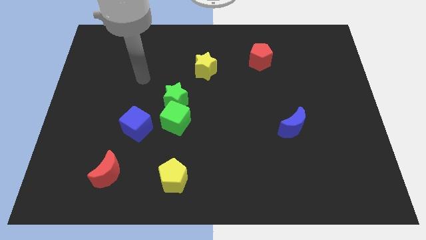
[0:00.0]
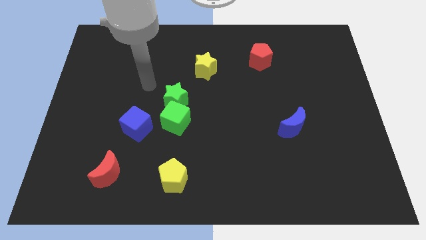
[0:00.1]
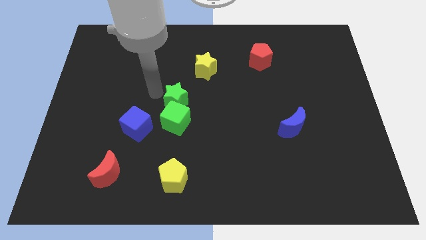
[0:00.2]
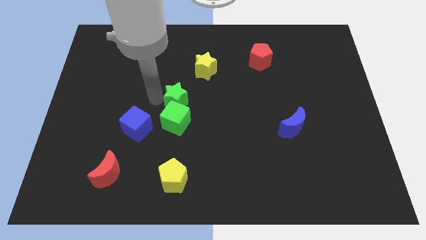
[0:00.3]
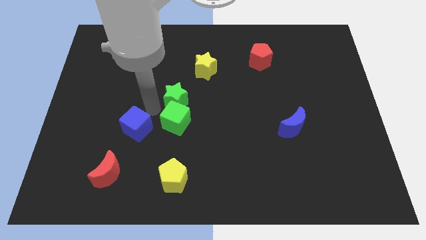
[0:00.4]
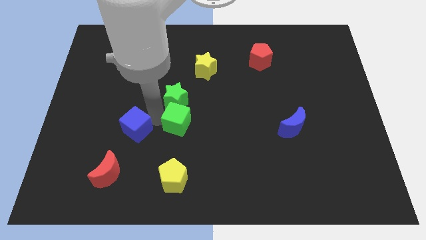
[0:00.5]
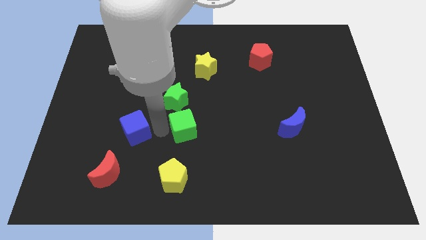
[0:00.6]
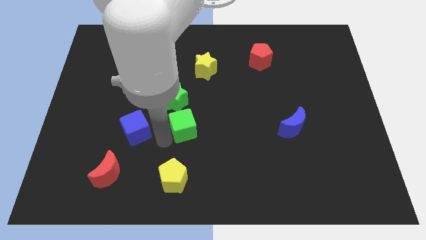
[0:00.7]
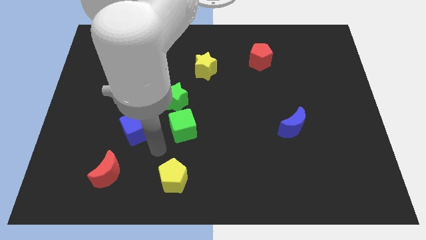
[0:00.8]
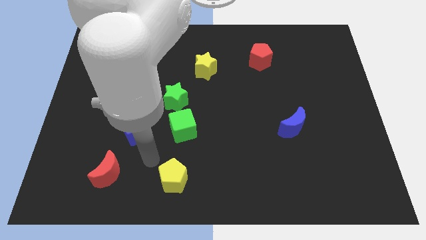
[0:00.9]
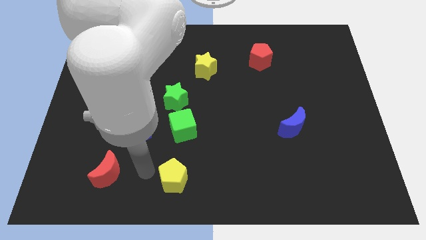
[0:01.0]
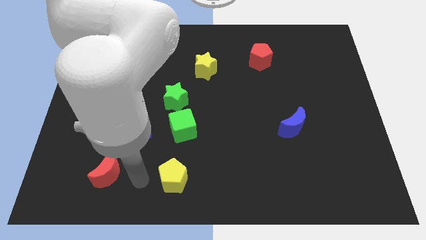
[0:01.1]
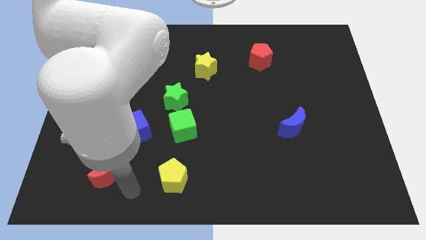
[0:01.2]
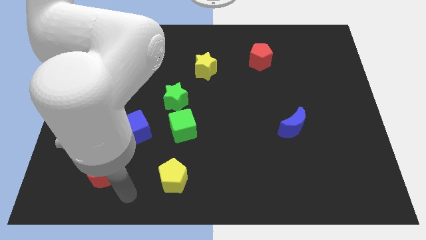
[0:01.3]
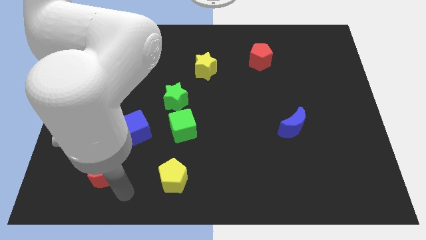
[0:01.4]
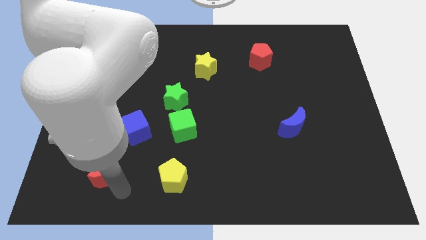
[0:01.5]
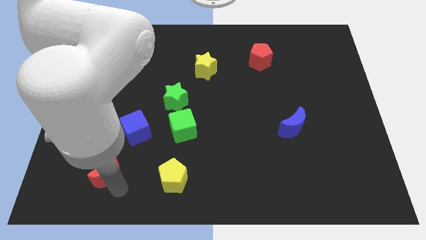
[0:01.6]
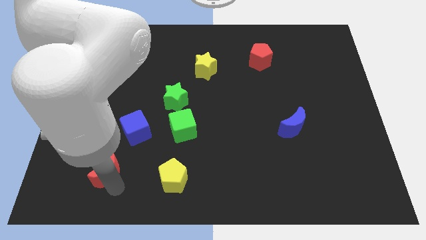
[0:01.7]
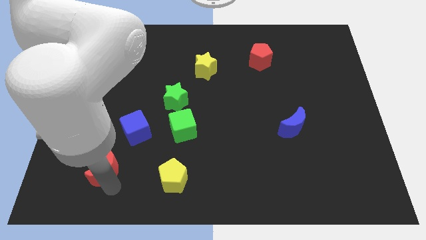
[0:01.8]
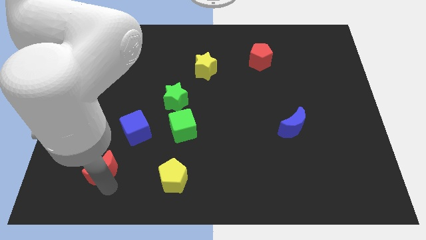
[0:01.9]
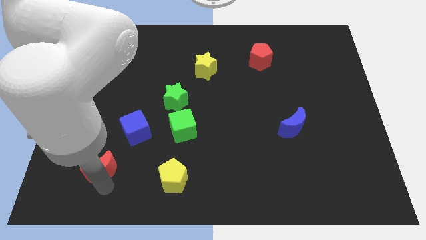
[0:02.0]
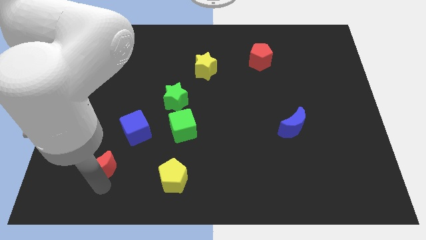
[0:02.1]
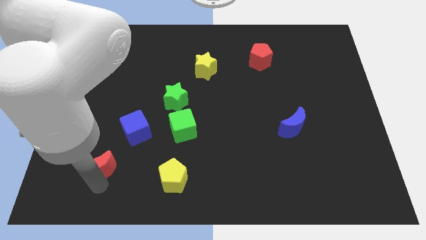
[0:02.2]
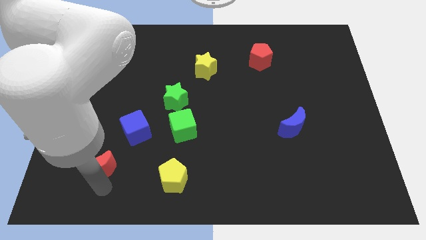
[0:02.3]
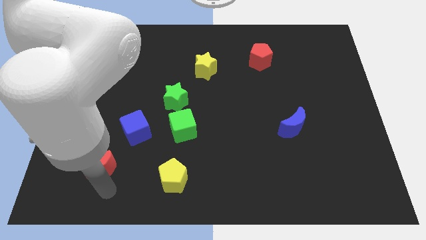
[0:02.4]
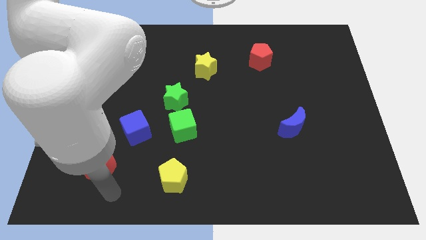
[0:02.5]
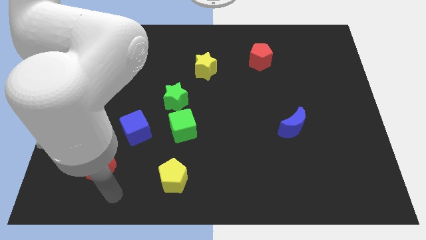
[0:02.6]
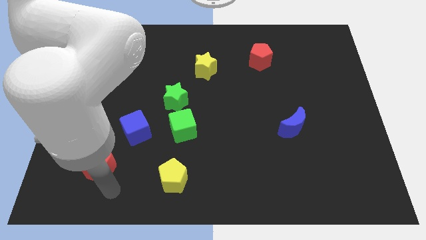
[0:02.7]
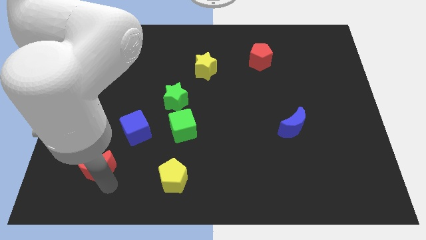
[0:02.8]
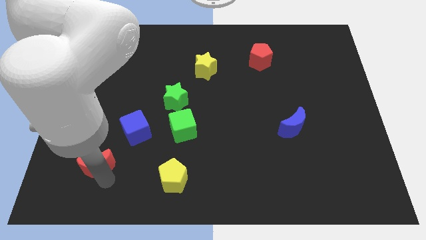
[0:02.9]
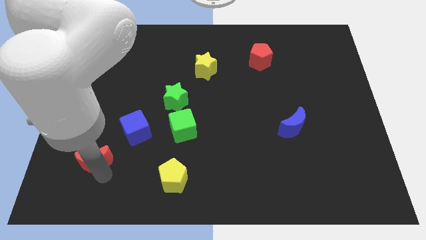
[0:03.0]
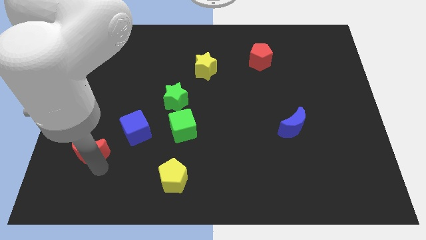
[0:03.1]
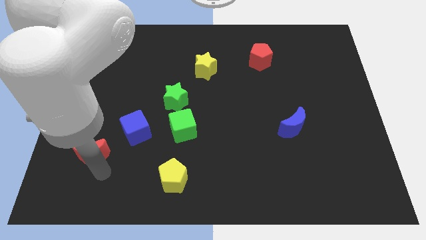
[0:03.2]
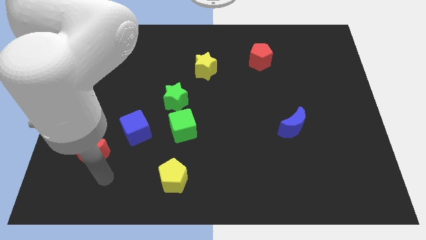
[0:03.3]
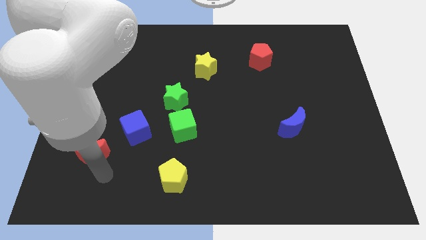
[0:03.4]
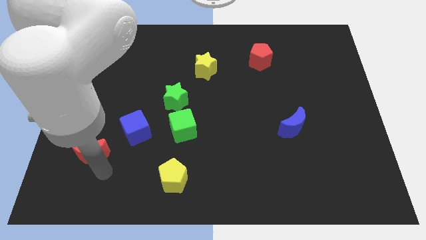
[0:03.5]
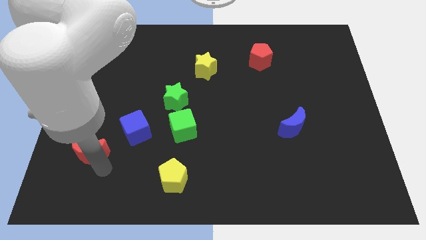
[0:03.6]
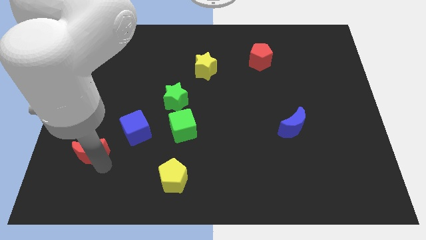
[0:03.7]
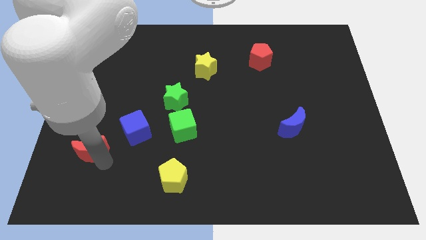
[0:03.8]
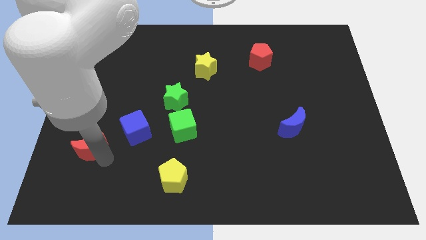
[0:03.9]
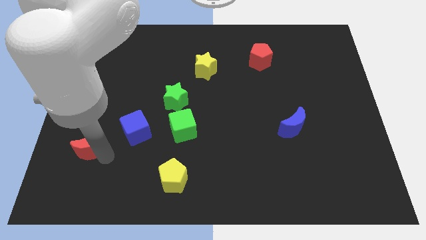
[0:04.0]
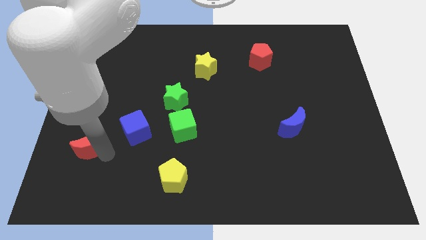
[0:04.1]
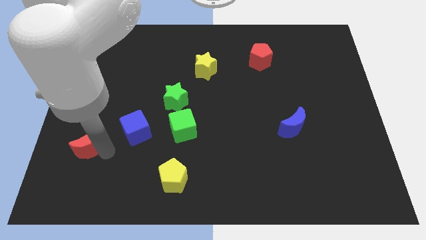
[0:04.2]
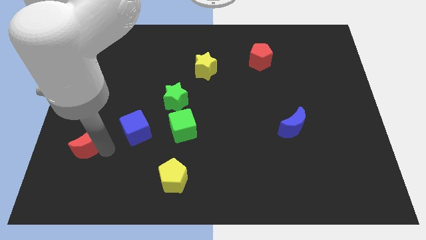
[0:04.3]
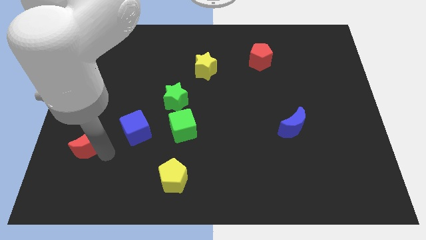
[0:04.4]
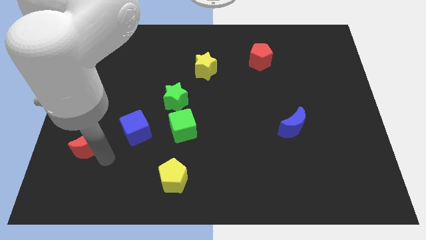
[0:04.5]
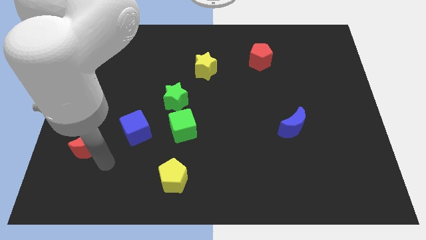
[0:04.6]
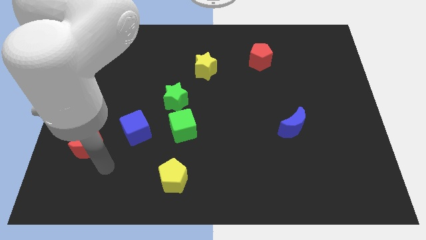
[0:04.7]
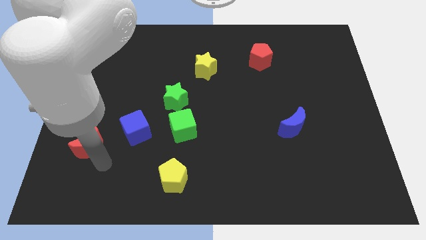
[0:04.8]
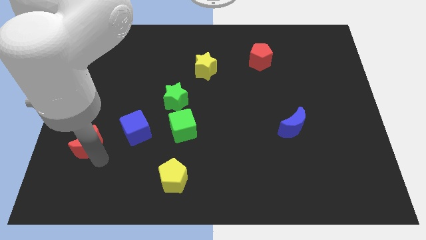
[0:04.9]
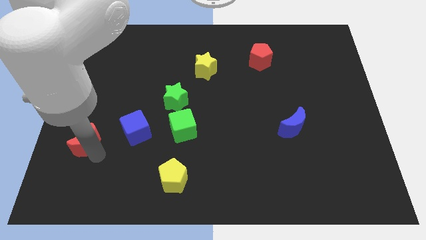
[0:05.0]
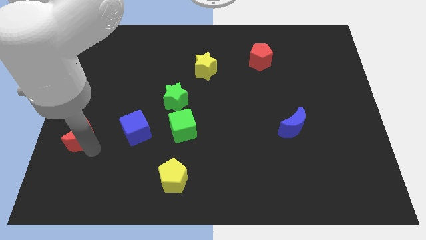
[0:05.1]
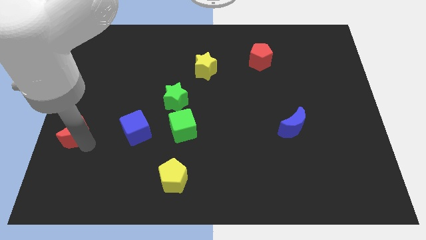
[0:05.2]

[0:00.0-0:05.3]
slide the red moon to the left side of the board

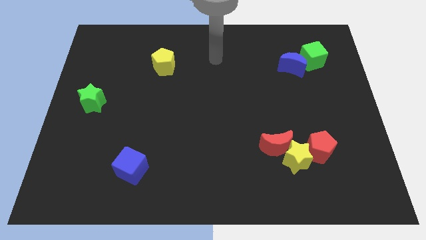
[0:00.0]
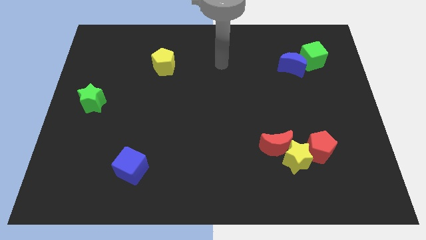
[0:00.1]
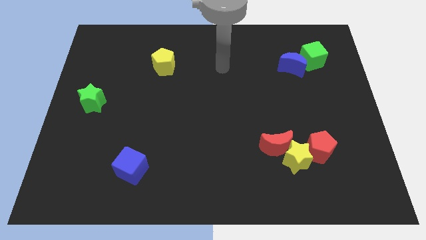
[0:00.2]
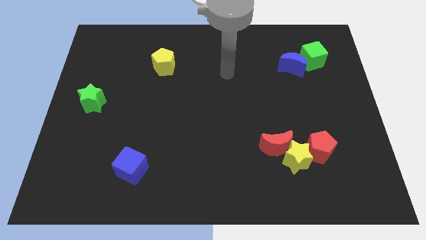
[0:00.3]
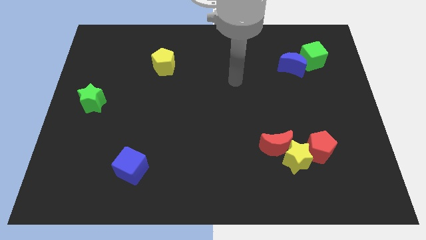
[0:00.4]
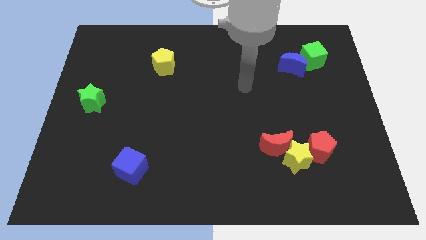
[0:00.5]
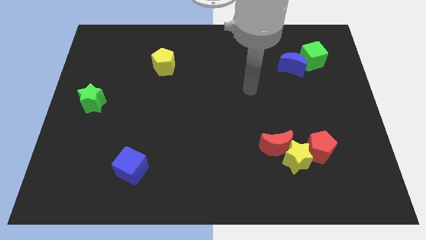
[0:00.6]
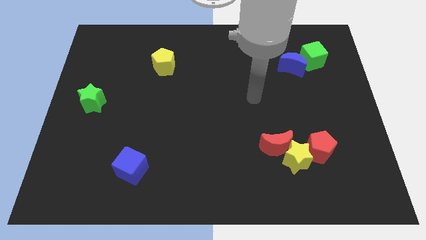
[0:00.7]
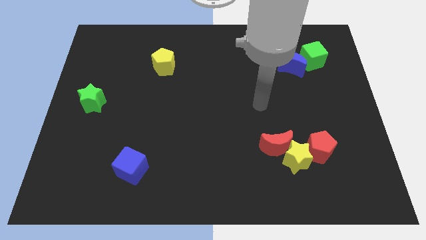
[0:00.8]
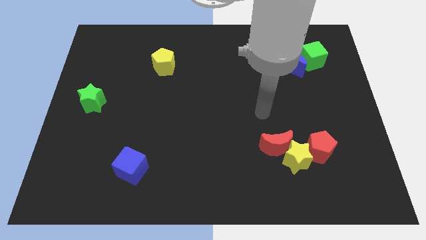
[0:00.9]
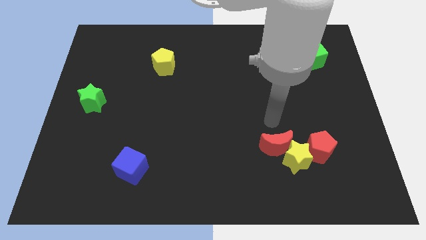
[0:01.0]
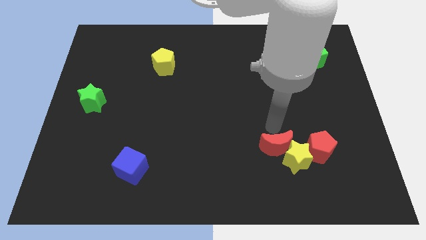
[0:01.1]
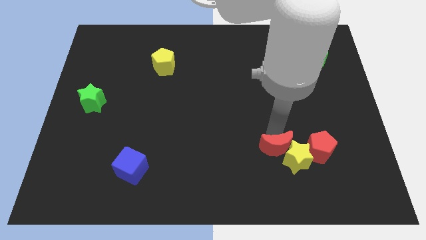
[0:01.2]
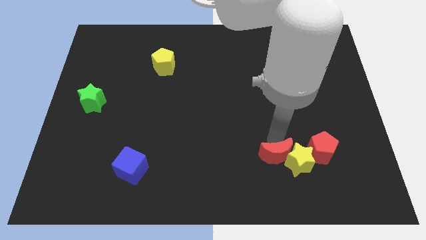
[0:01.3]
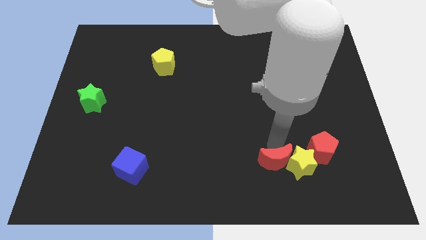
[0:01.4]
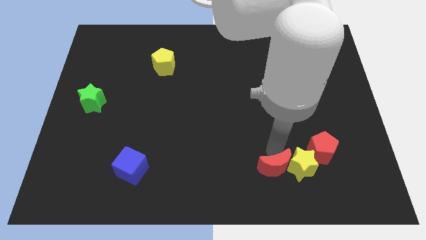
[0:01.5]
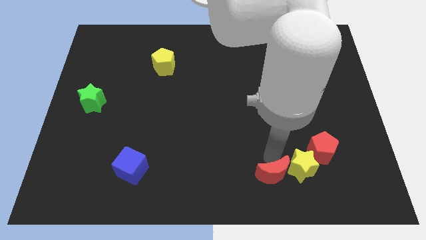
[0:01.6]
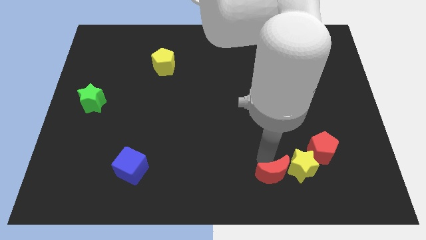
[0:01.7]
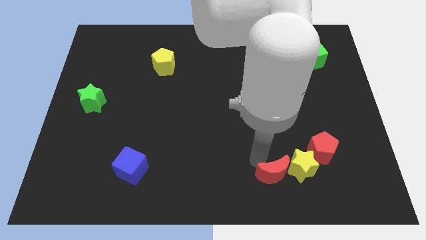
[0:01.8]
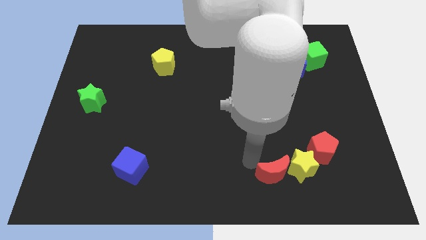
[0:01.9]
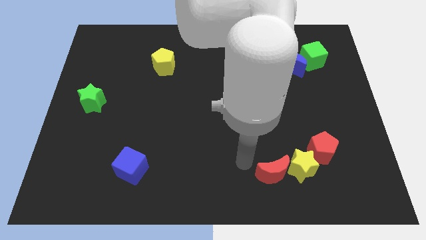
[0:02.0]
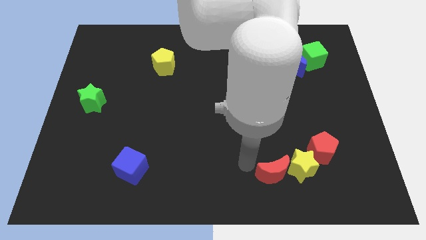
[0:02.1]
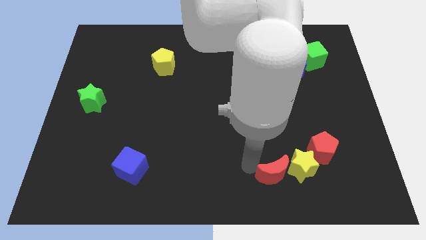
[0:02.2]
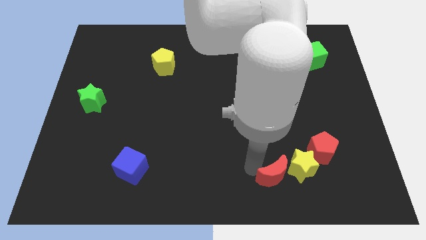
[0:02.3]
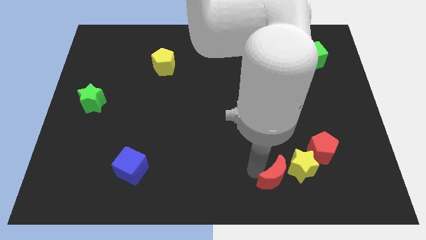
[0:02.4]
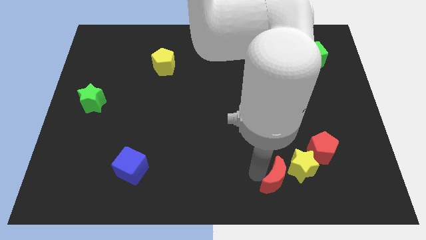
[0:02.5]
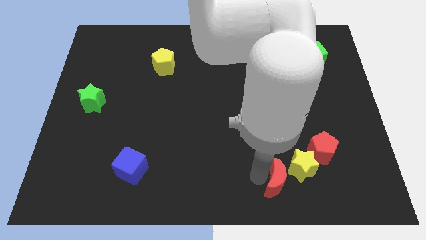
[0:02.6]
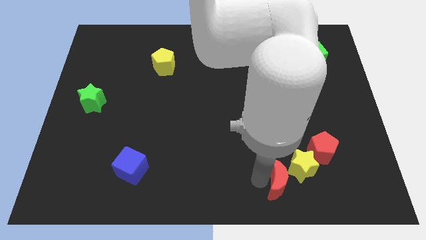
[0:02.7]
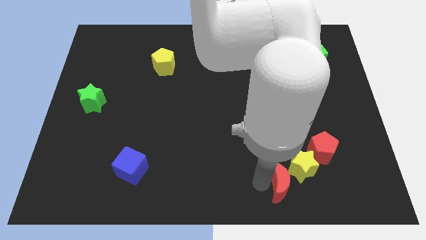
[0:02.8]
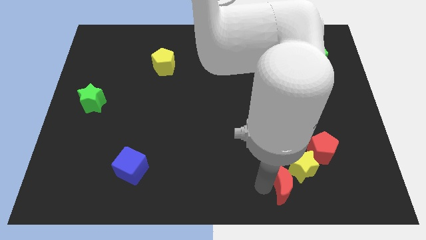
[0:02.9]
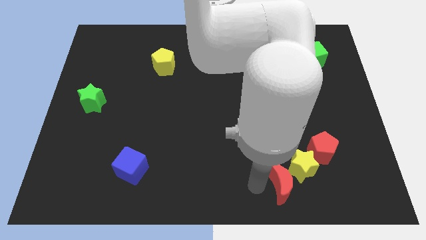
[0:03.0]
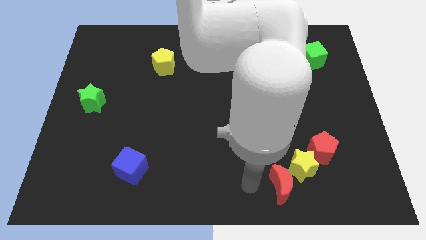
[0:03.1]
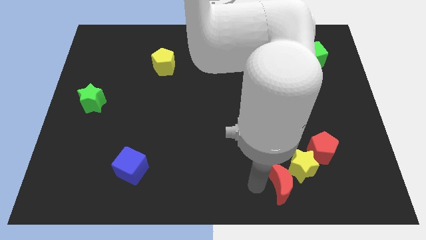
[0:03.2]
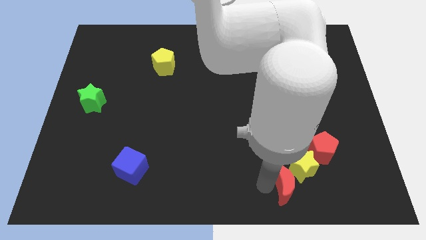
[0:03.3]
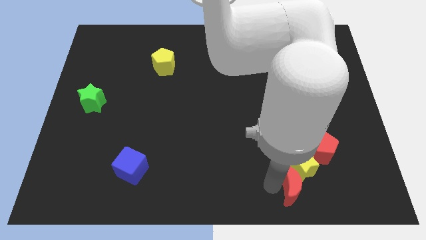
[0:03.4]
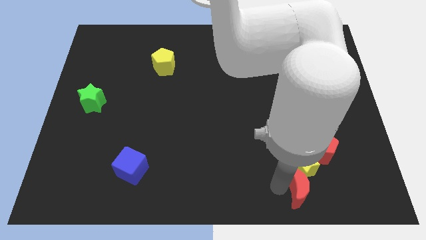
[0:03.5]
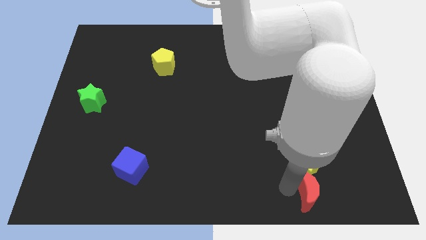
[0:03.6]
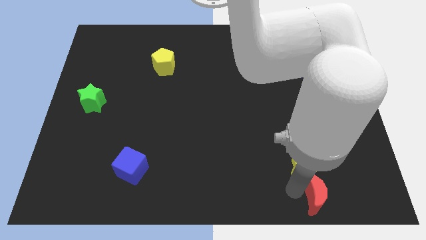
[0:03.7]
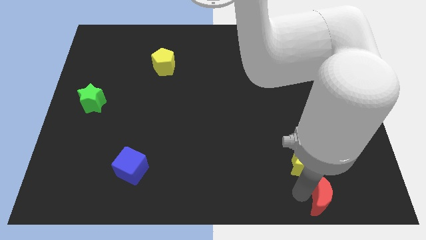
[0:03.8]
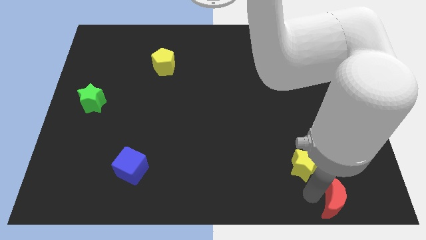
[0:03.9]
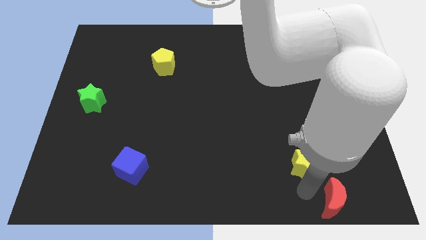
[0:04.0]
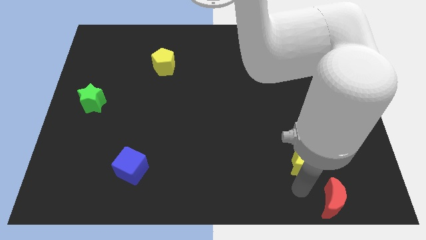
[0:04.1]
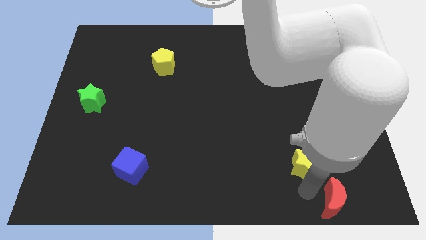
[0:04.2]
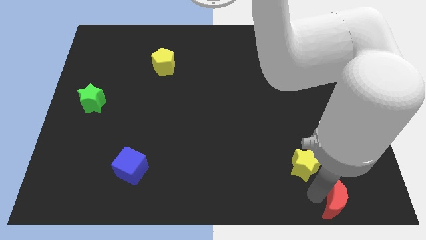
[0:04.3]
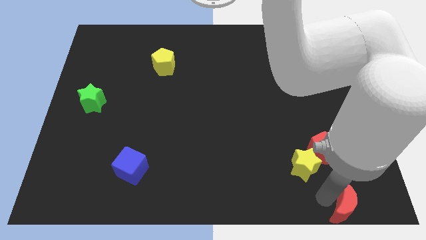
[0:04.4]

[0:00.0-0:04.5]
move the red moon to the lower right corner
